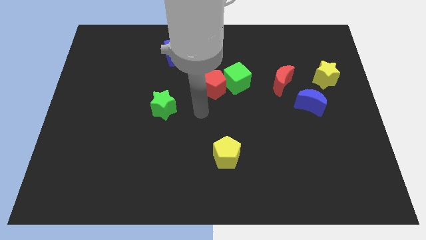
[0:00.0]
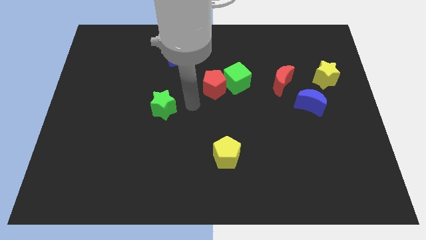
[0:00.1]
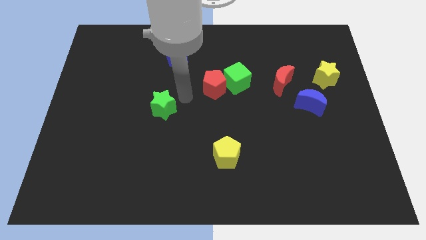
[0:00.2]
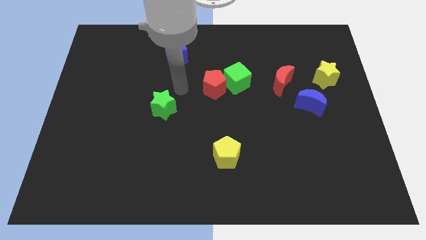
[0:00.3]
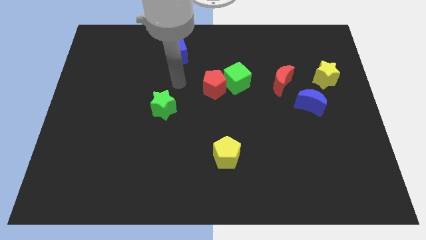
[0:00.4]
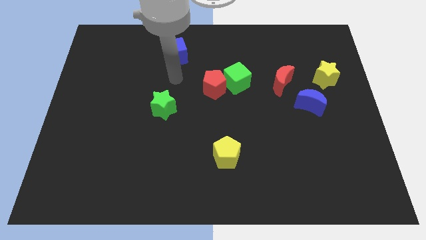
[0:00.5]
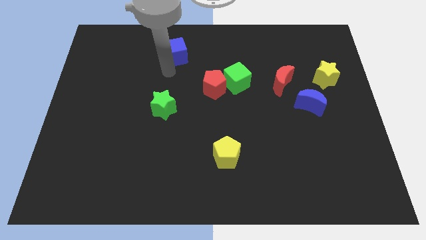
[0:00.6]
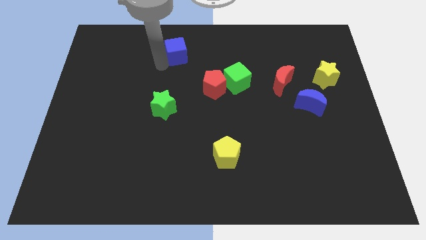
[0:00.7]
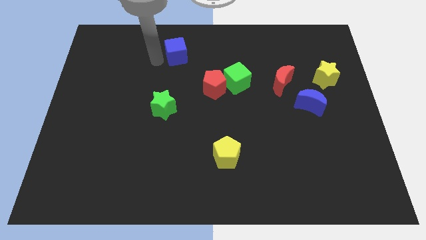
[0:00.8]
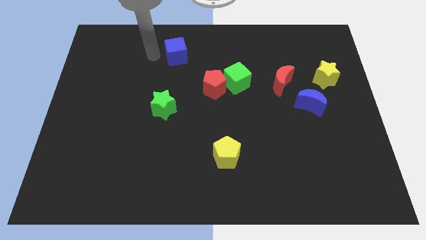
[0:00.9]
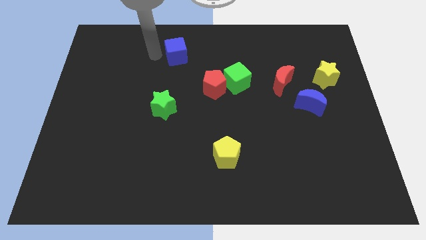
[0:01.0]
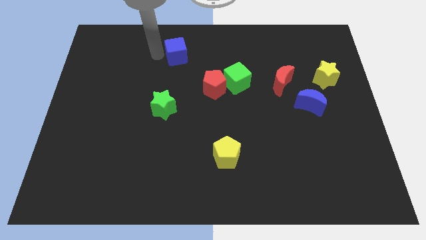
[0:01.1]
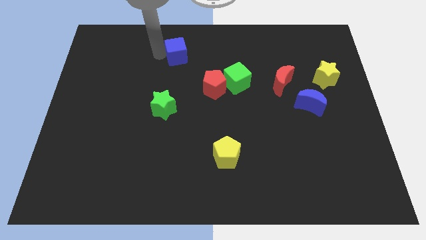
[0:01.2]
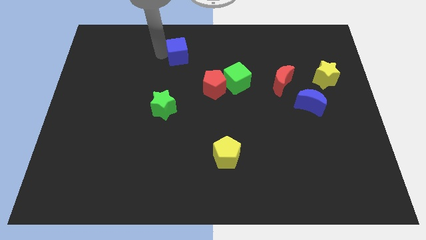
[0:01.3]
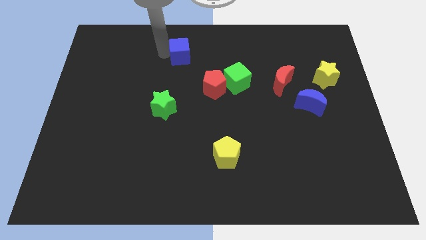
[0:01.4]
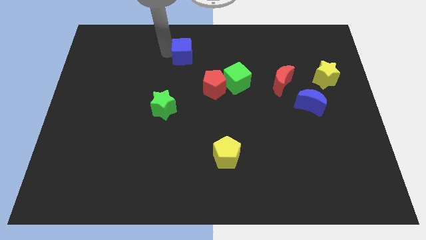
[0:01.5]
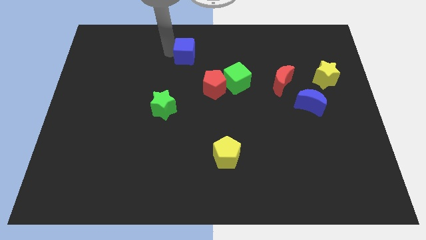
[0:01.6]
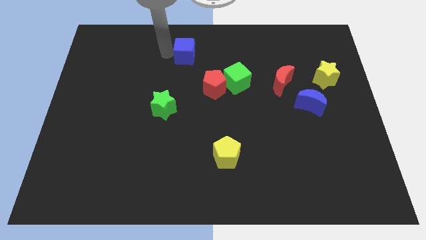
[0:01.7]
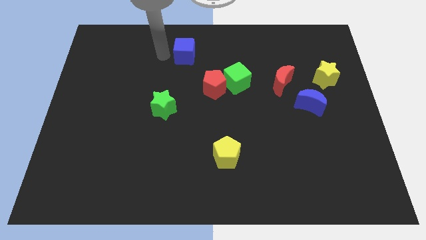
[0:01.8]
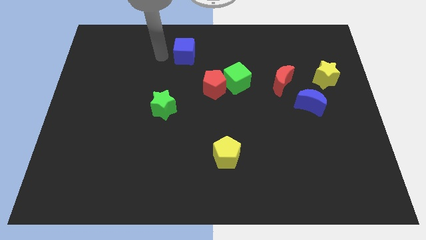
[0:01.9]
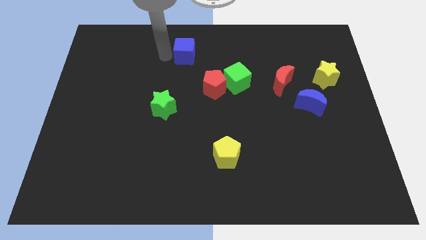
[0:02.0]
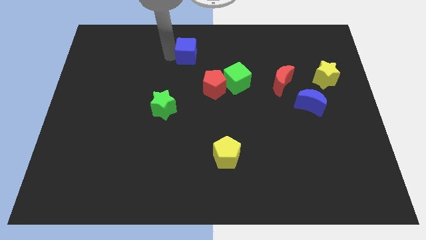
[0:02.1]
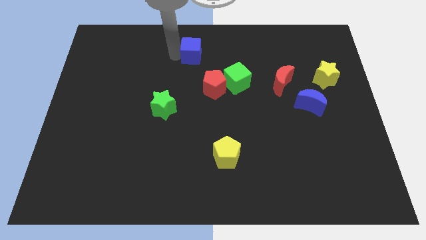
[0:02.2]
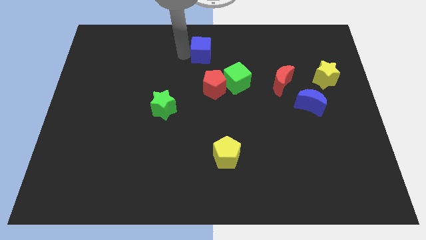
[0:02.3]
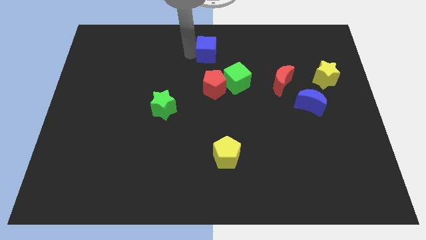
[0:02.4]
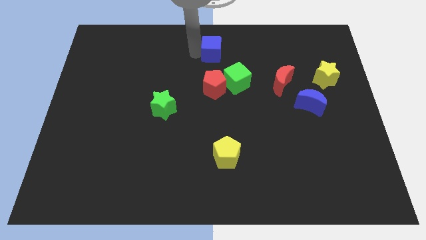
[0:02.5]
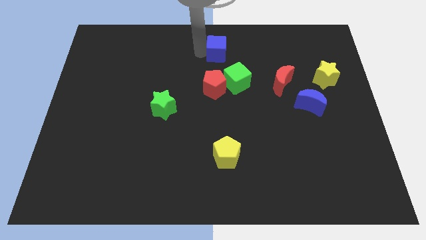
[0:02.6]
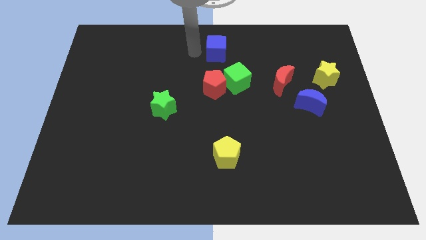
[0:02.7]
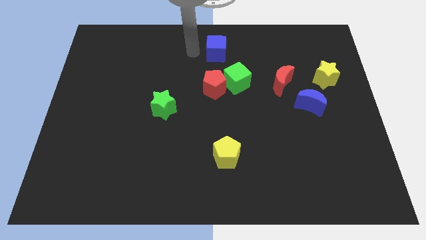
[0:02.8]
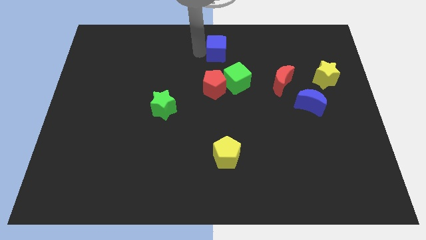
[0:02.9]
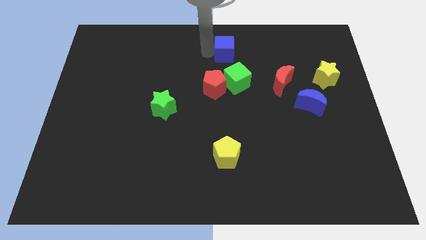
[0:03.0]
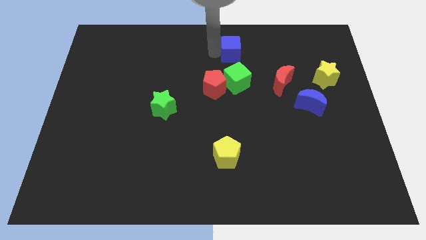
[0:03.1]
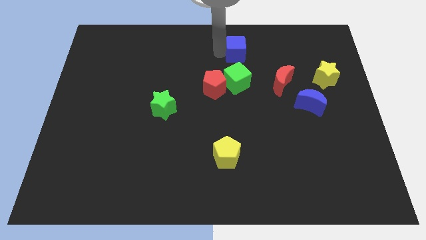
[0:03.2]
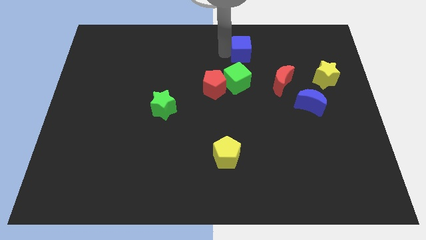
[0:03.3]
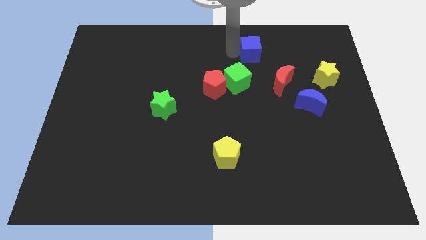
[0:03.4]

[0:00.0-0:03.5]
push the blue cube right

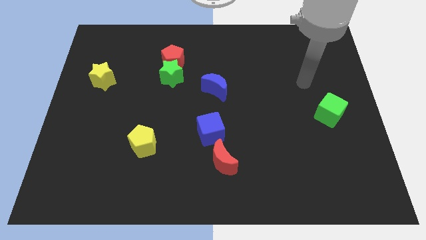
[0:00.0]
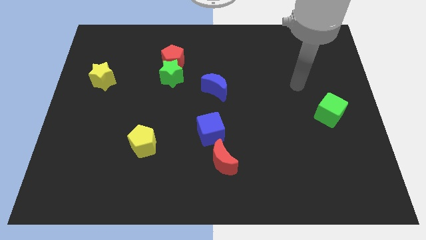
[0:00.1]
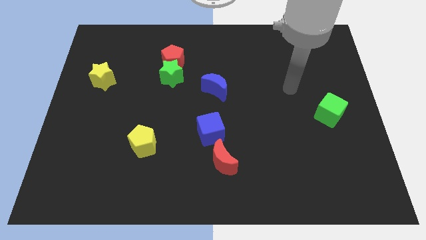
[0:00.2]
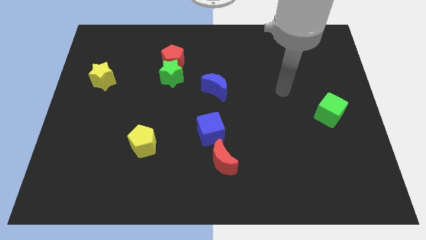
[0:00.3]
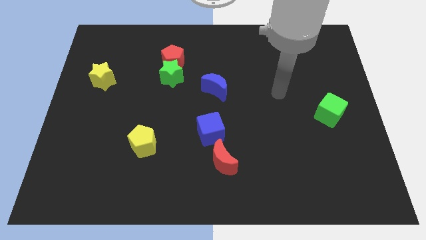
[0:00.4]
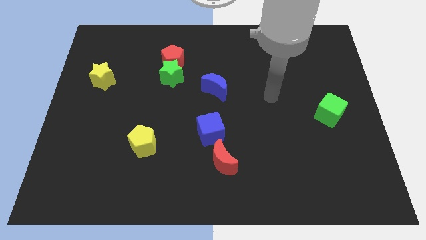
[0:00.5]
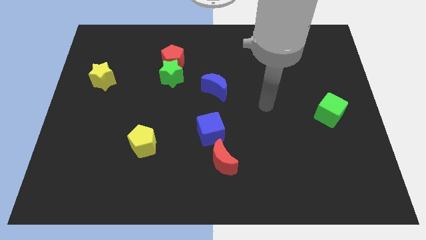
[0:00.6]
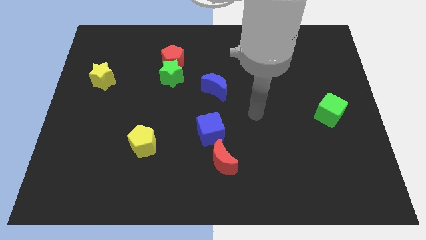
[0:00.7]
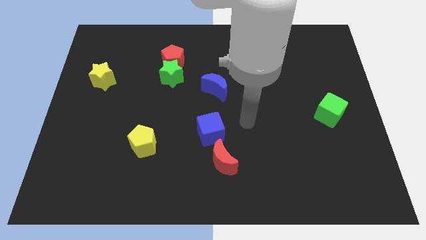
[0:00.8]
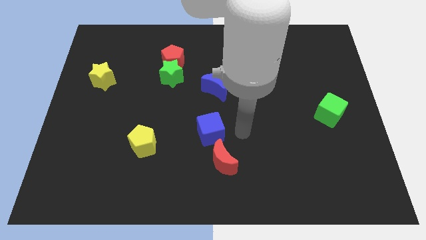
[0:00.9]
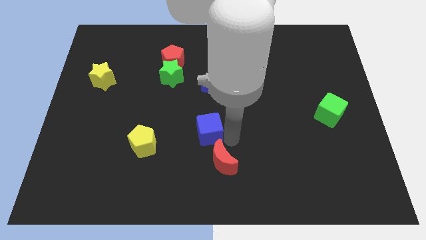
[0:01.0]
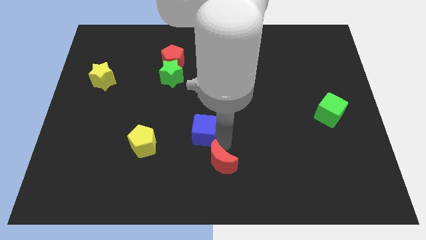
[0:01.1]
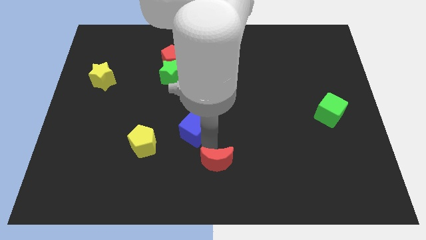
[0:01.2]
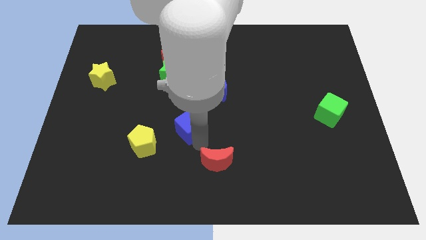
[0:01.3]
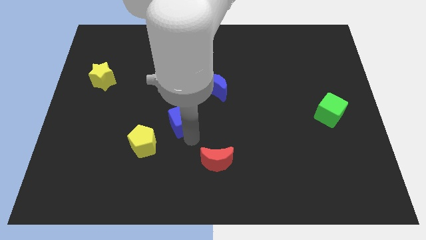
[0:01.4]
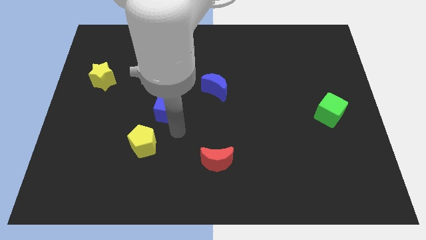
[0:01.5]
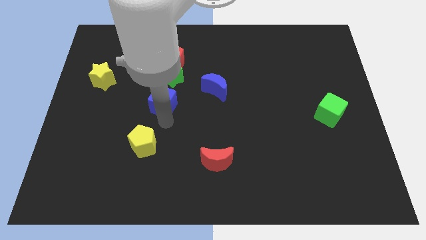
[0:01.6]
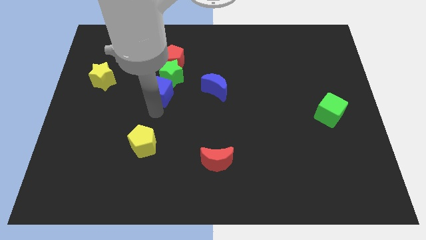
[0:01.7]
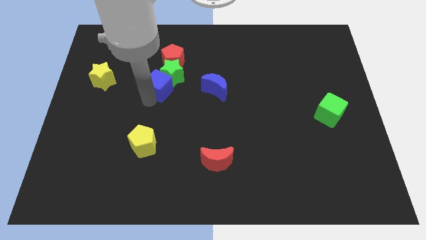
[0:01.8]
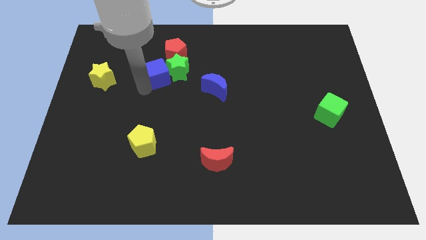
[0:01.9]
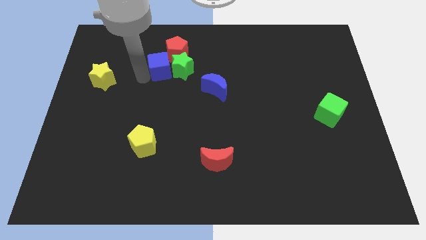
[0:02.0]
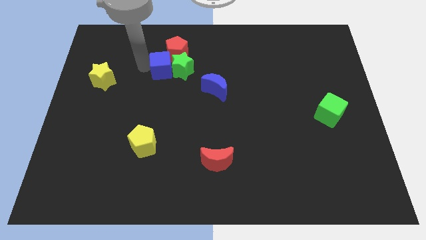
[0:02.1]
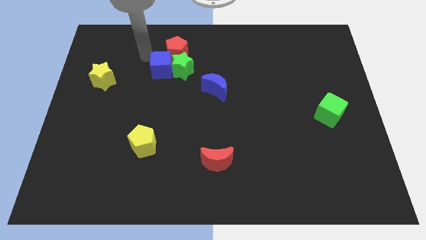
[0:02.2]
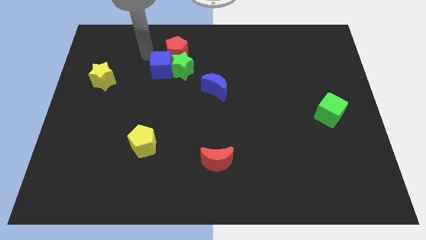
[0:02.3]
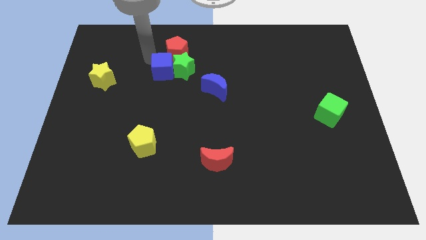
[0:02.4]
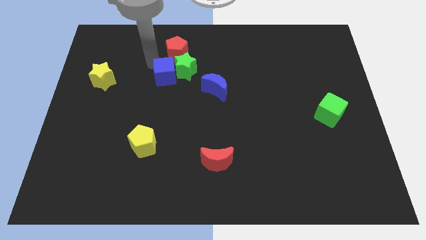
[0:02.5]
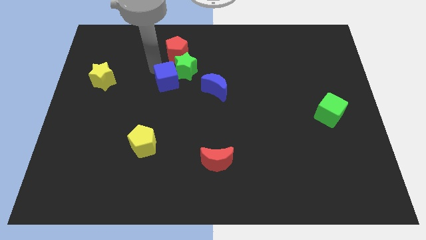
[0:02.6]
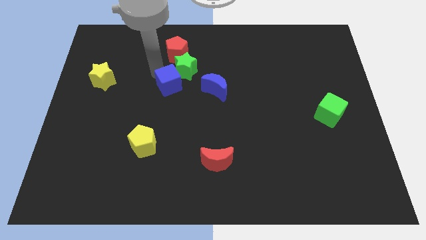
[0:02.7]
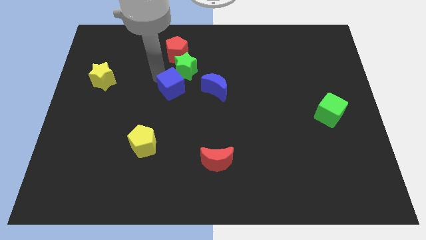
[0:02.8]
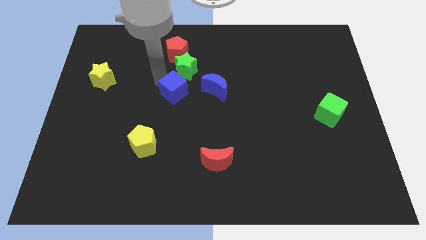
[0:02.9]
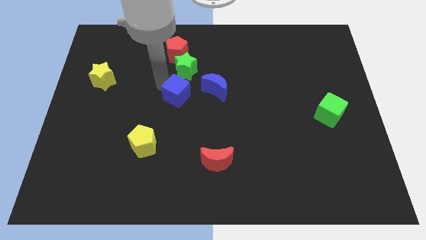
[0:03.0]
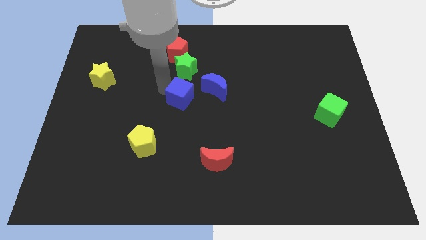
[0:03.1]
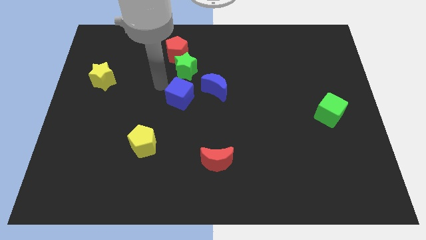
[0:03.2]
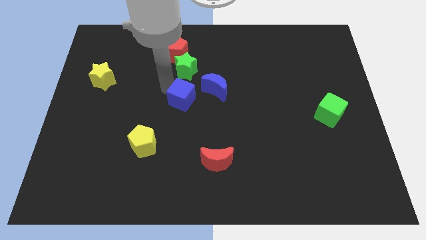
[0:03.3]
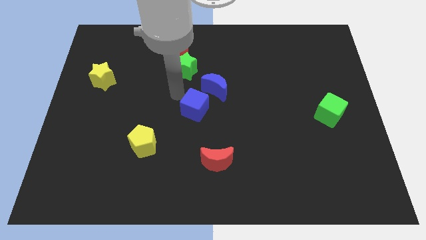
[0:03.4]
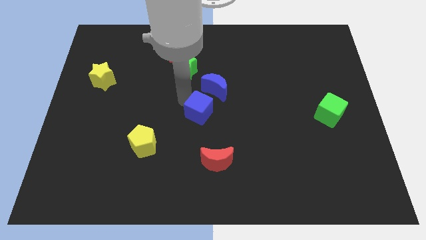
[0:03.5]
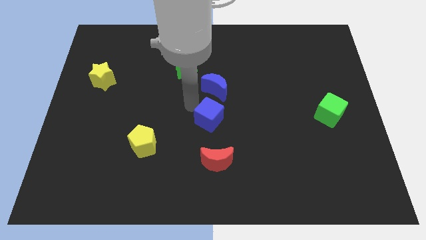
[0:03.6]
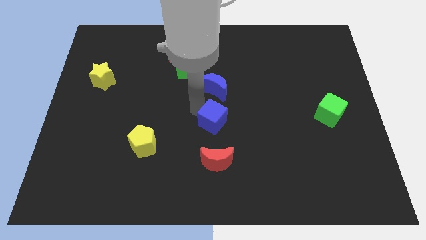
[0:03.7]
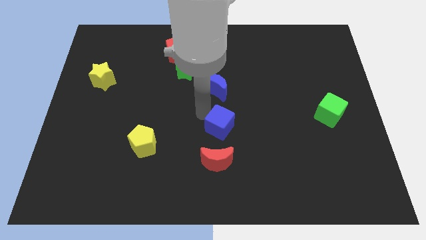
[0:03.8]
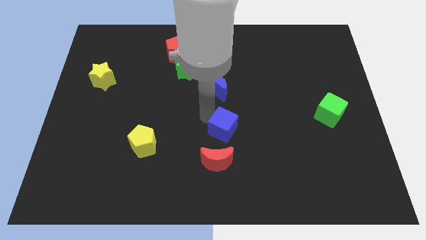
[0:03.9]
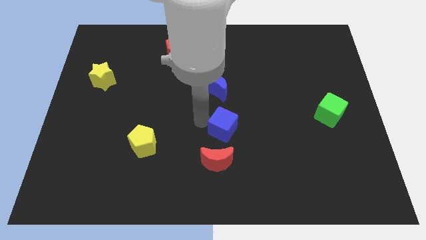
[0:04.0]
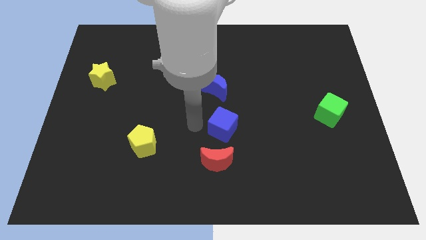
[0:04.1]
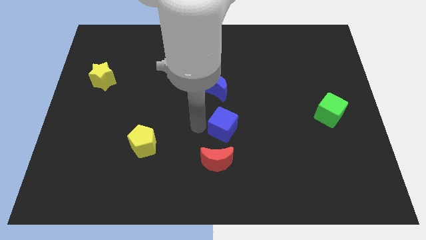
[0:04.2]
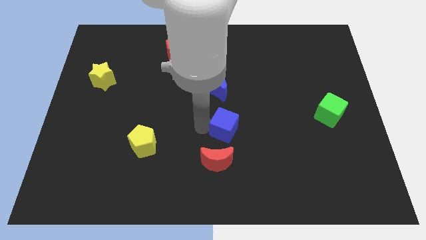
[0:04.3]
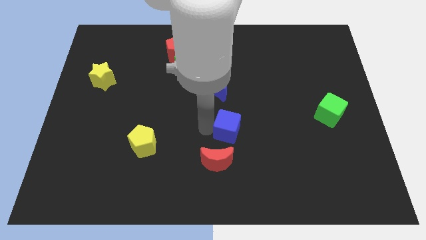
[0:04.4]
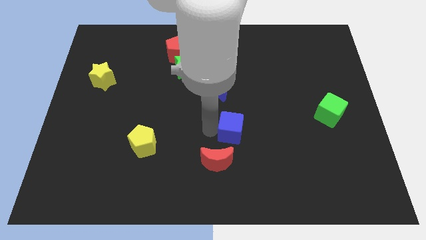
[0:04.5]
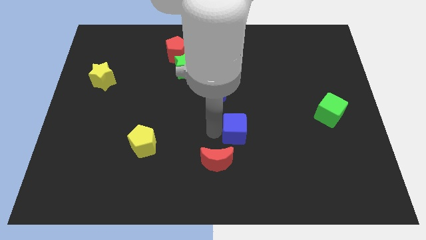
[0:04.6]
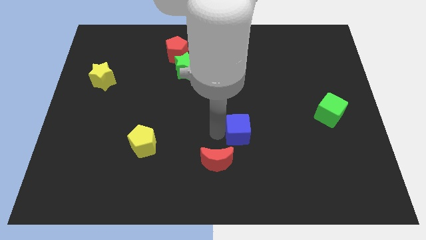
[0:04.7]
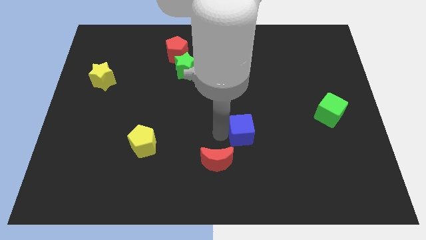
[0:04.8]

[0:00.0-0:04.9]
slightly slide the blue cube right
